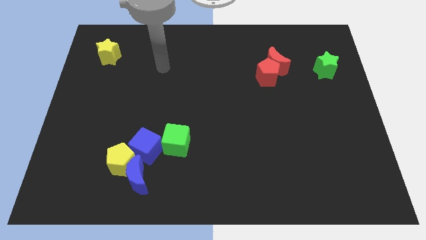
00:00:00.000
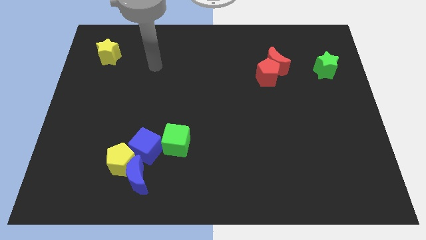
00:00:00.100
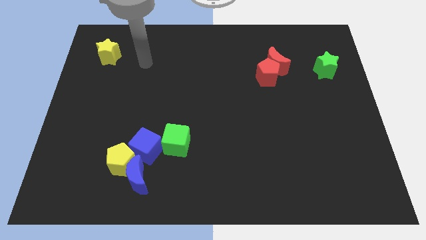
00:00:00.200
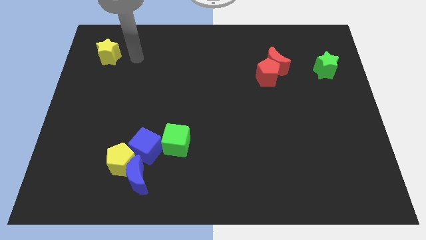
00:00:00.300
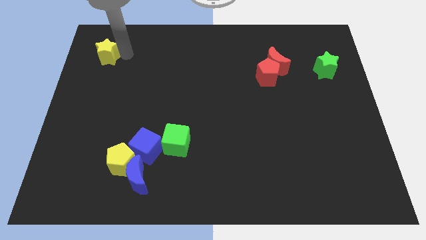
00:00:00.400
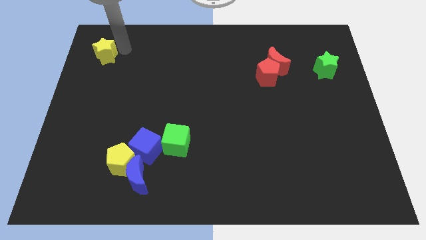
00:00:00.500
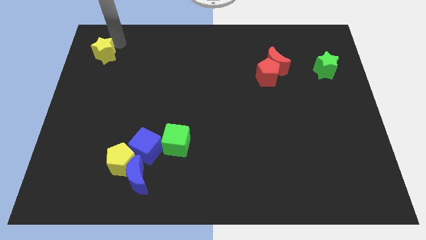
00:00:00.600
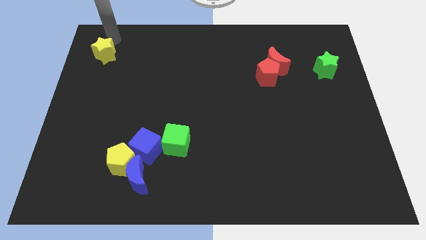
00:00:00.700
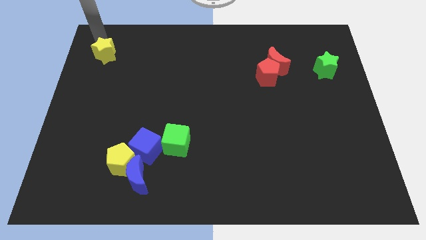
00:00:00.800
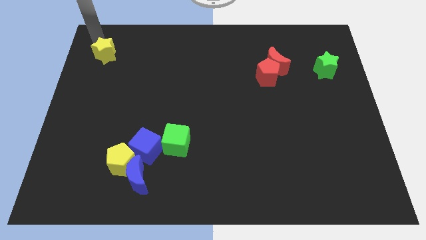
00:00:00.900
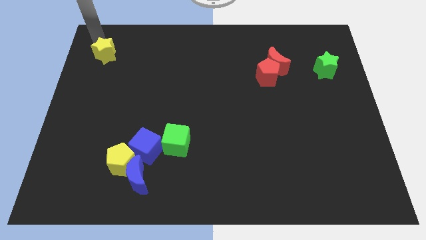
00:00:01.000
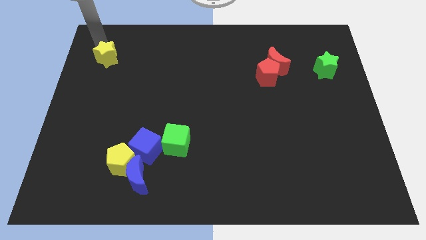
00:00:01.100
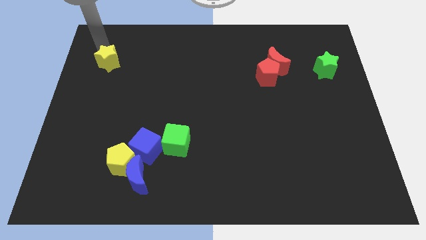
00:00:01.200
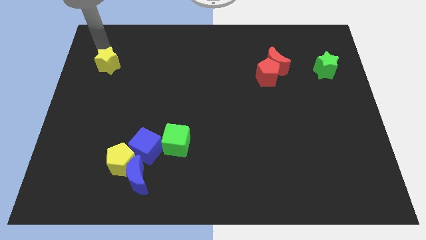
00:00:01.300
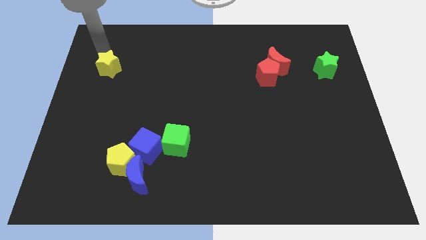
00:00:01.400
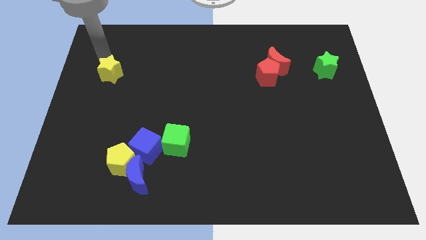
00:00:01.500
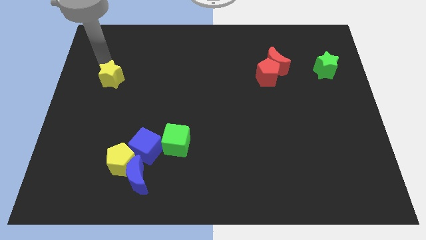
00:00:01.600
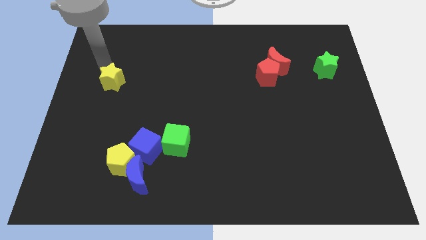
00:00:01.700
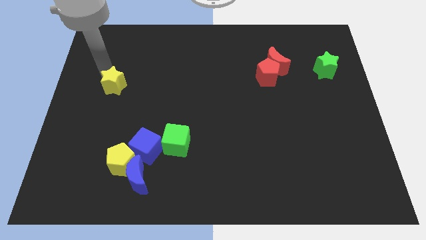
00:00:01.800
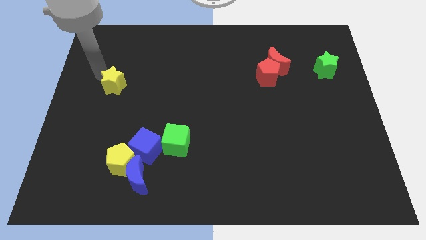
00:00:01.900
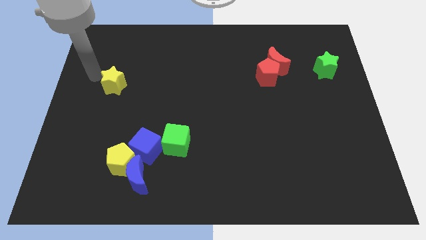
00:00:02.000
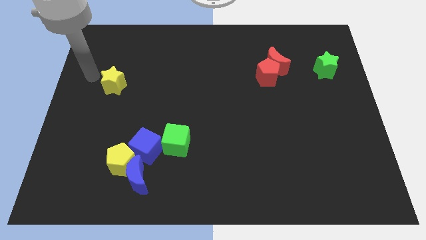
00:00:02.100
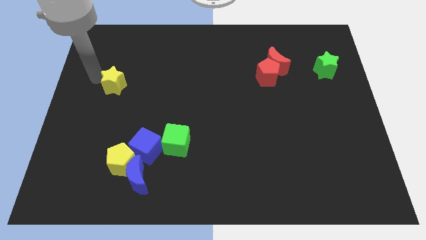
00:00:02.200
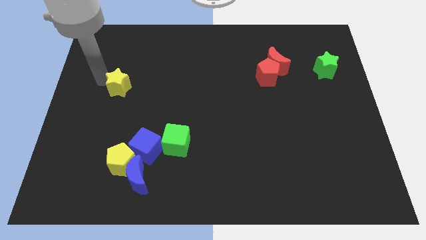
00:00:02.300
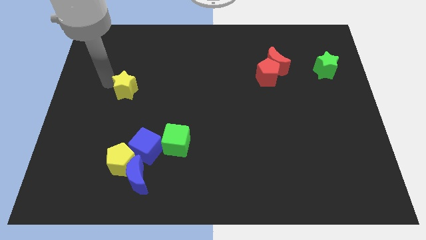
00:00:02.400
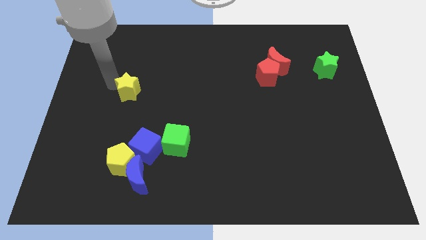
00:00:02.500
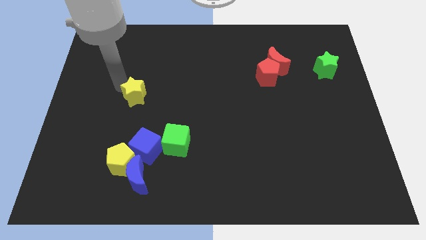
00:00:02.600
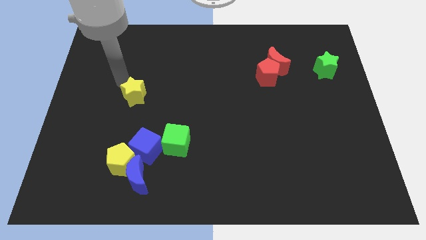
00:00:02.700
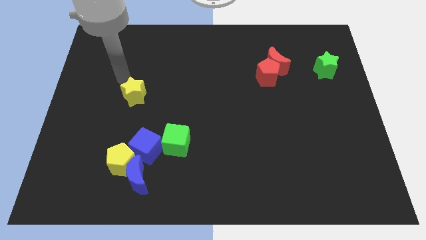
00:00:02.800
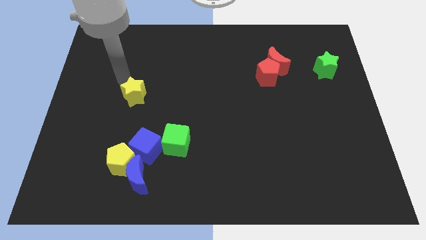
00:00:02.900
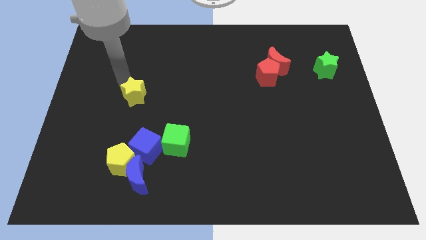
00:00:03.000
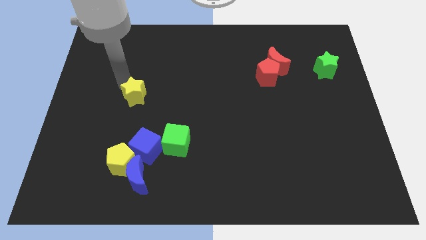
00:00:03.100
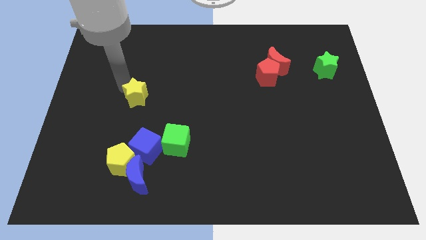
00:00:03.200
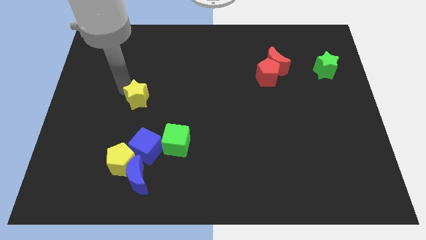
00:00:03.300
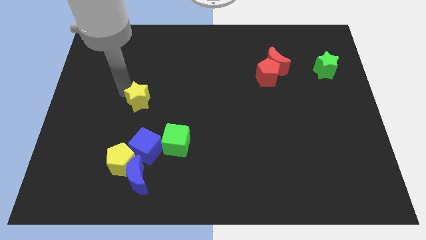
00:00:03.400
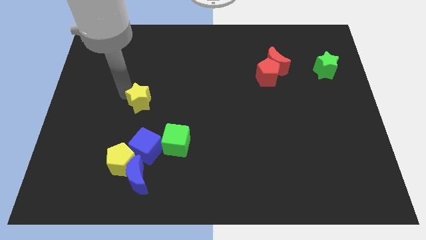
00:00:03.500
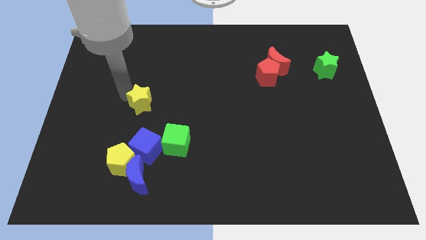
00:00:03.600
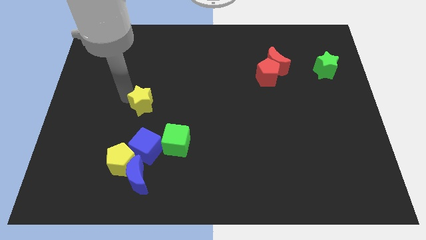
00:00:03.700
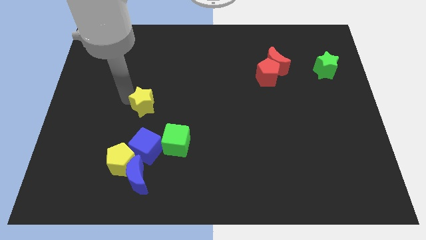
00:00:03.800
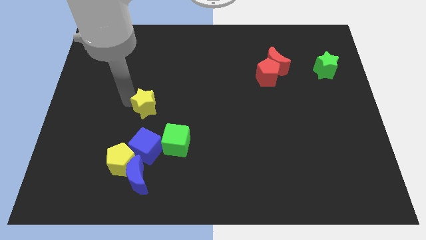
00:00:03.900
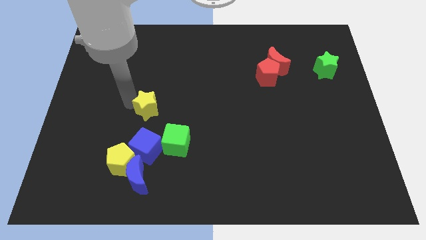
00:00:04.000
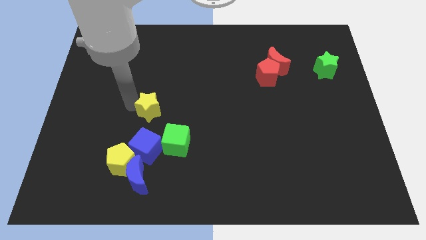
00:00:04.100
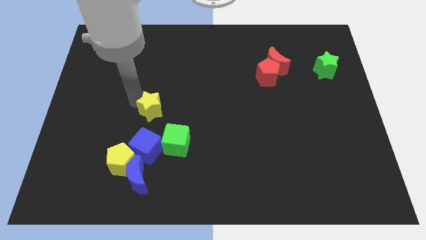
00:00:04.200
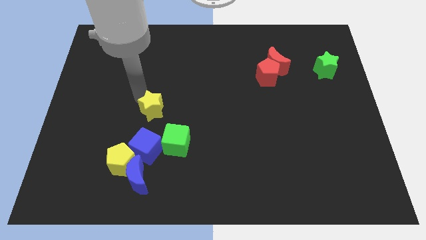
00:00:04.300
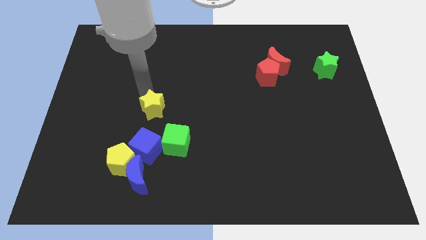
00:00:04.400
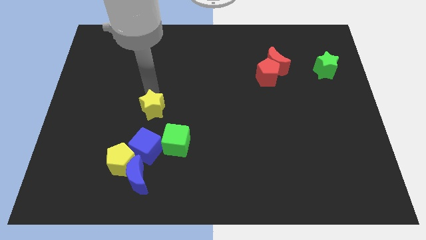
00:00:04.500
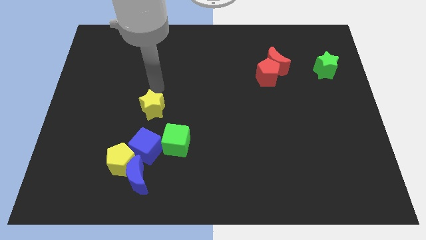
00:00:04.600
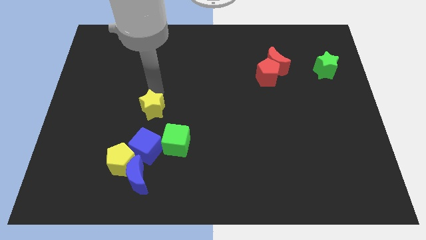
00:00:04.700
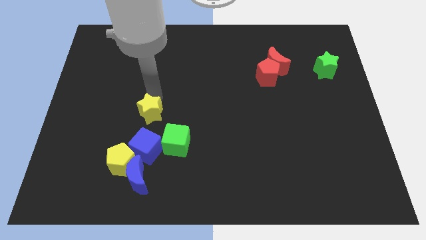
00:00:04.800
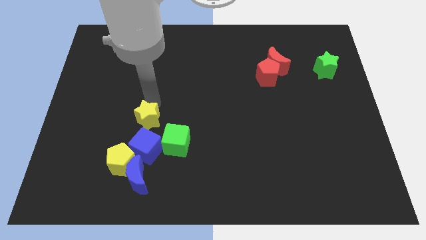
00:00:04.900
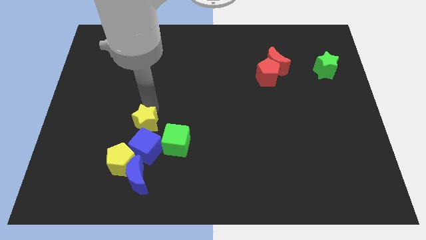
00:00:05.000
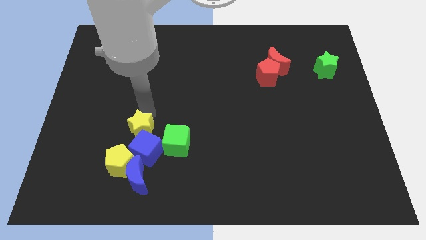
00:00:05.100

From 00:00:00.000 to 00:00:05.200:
push the yellow star close to the blue cube

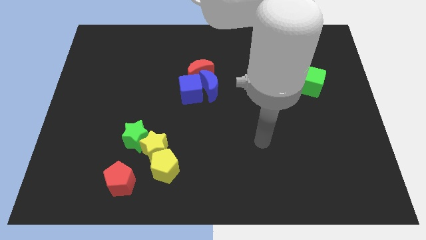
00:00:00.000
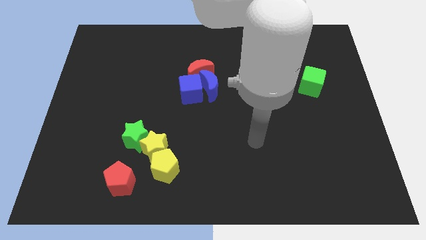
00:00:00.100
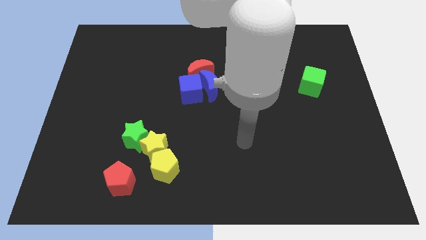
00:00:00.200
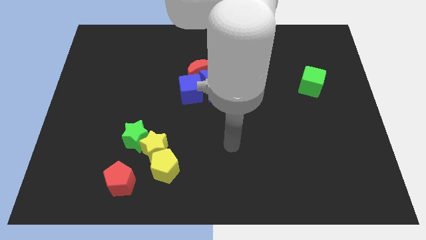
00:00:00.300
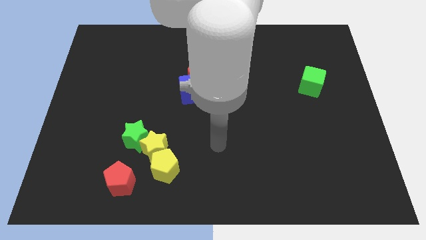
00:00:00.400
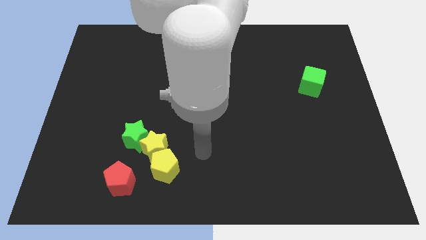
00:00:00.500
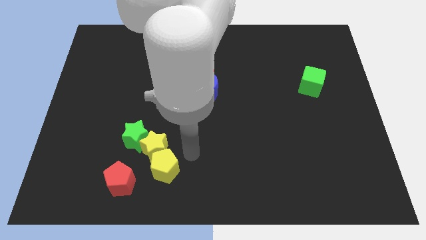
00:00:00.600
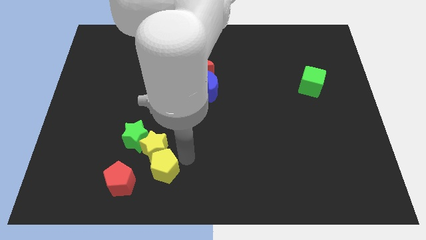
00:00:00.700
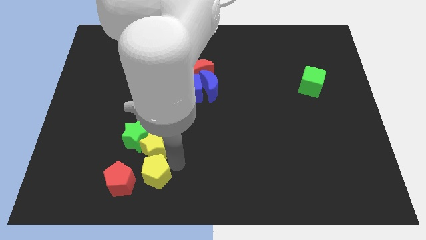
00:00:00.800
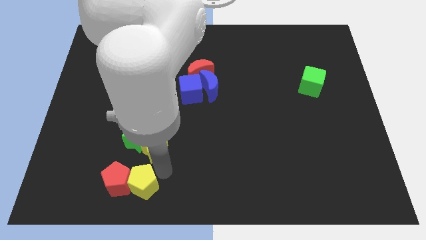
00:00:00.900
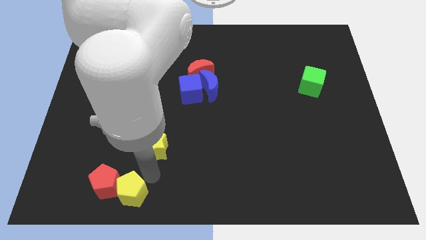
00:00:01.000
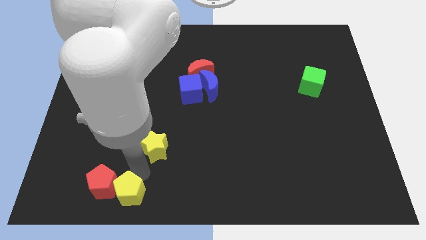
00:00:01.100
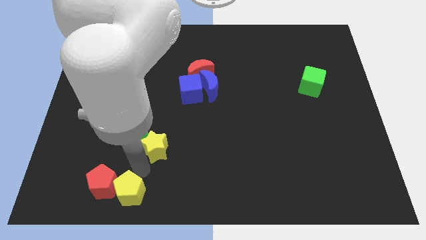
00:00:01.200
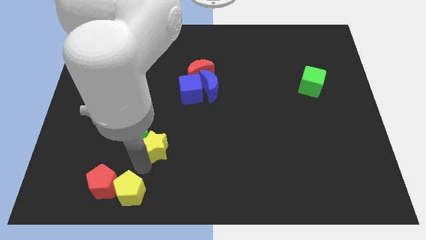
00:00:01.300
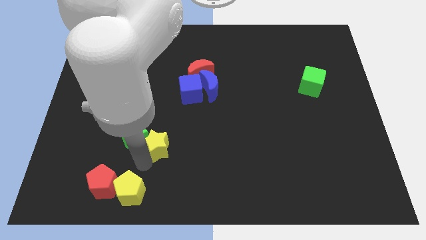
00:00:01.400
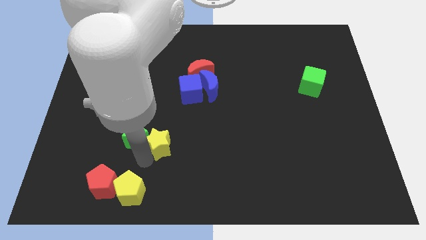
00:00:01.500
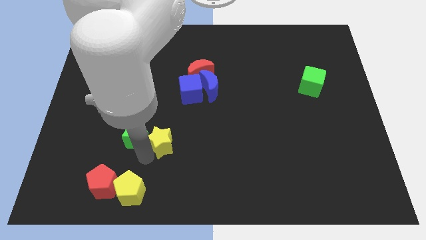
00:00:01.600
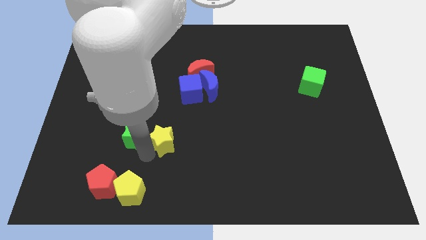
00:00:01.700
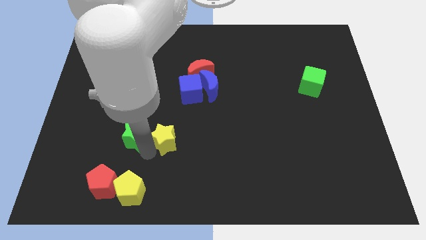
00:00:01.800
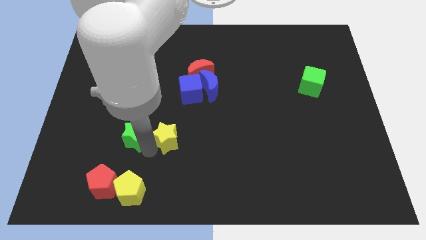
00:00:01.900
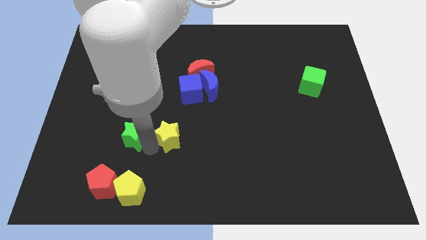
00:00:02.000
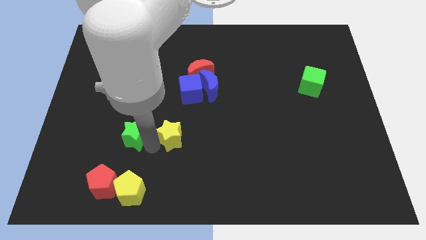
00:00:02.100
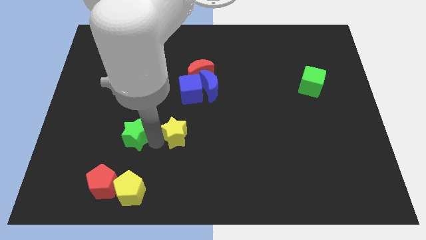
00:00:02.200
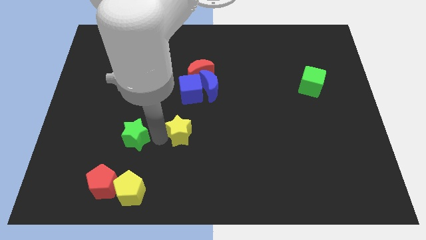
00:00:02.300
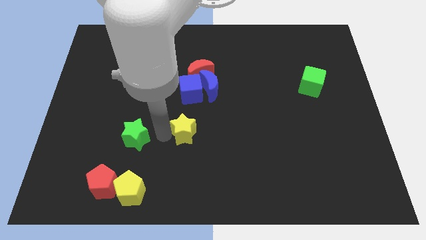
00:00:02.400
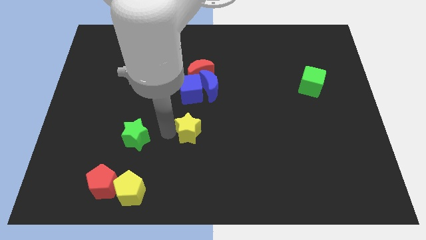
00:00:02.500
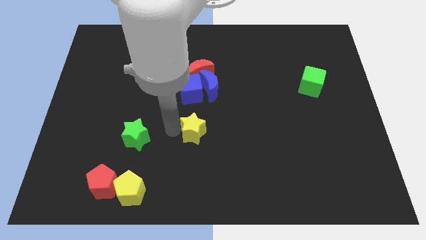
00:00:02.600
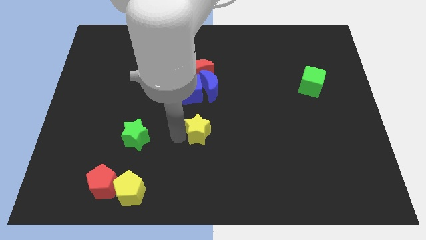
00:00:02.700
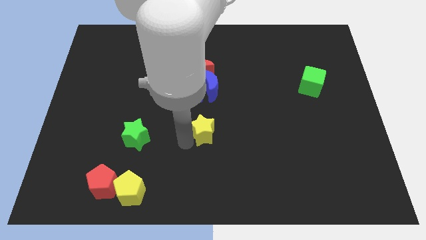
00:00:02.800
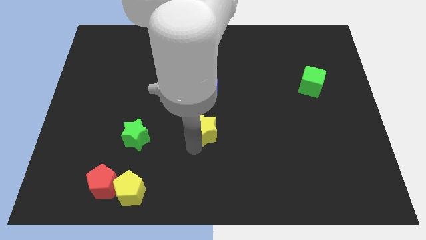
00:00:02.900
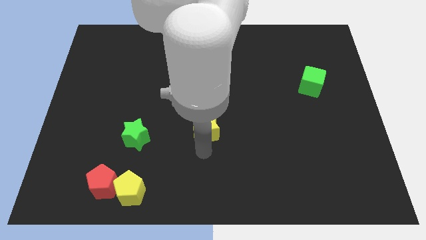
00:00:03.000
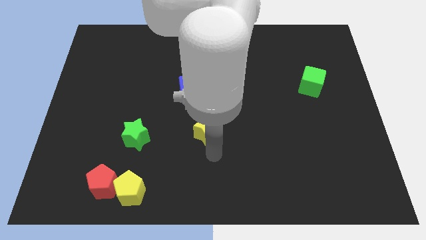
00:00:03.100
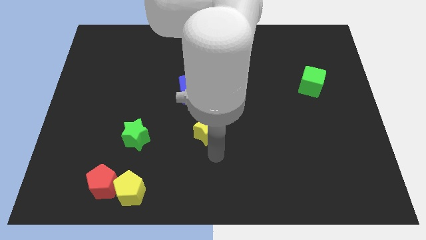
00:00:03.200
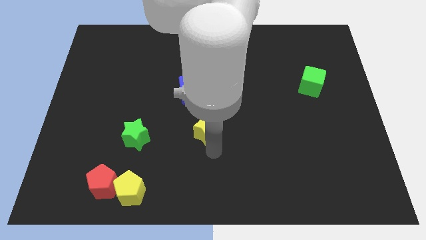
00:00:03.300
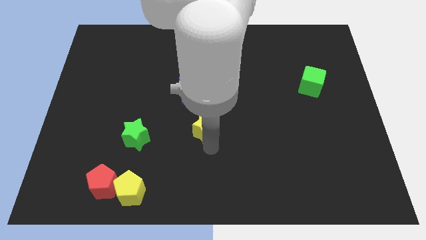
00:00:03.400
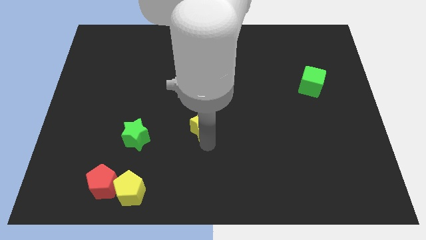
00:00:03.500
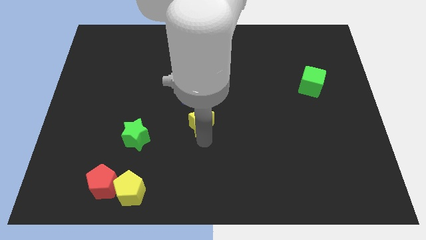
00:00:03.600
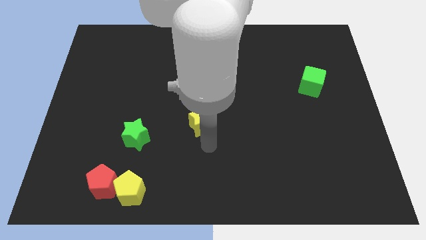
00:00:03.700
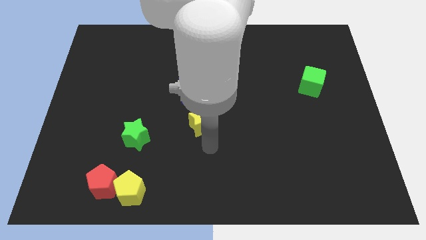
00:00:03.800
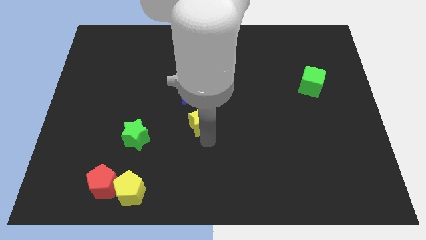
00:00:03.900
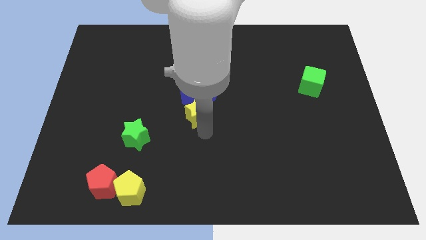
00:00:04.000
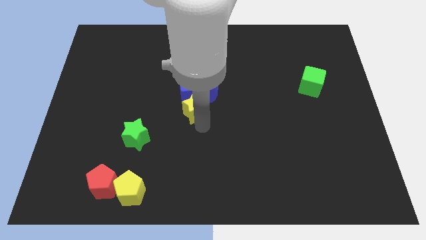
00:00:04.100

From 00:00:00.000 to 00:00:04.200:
put the yellow star to the blue cube
